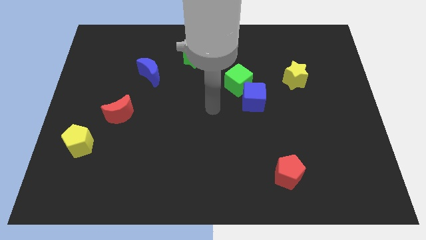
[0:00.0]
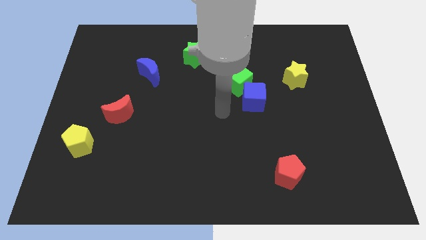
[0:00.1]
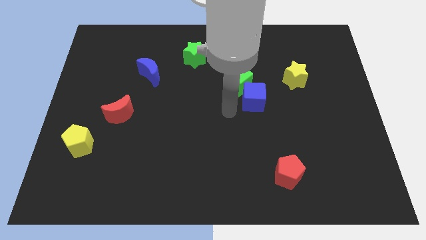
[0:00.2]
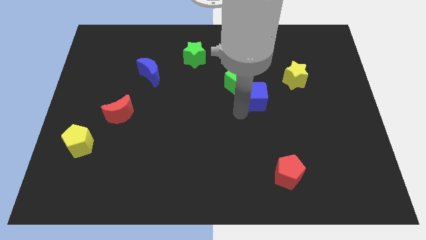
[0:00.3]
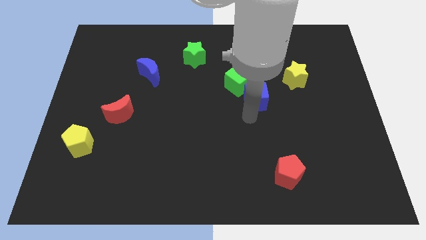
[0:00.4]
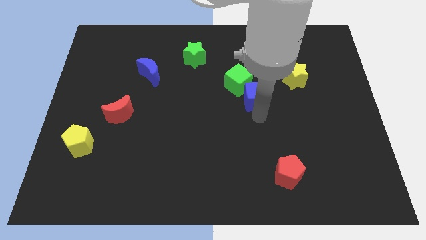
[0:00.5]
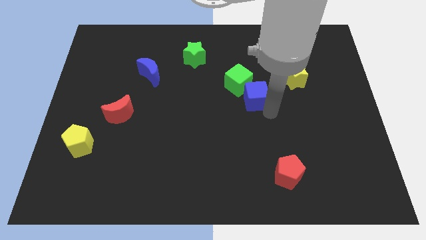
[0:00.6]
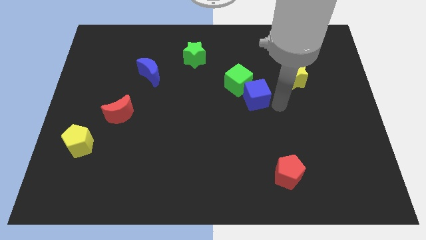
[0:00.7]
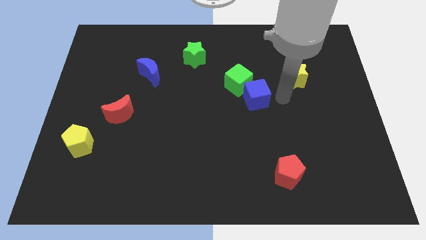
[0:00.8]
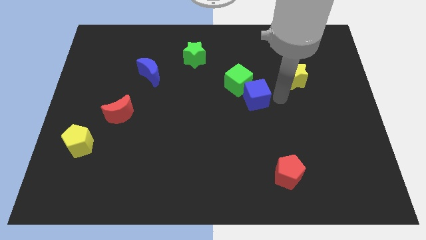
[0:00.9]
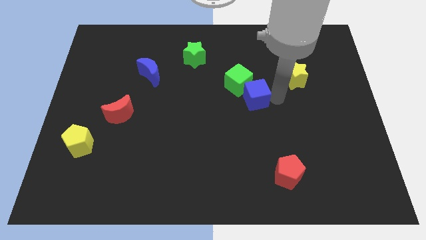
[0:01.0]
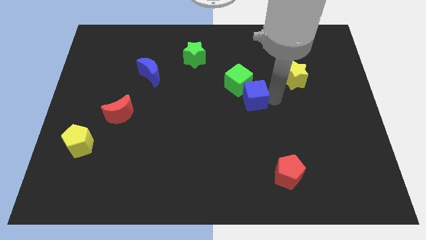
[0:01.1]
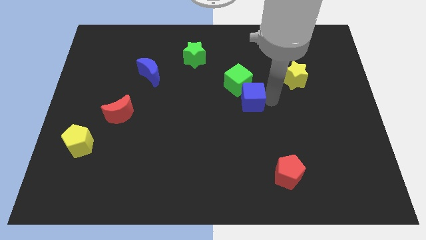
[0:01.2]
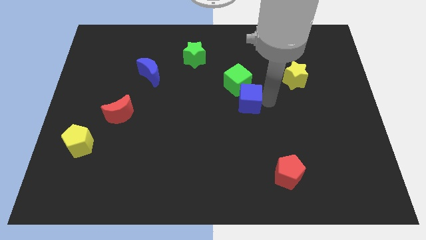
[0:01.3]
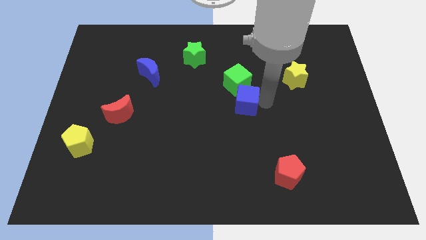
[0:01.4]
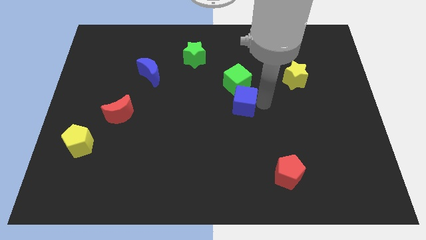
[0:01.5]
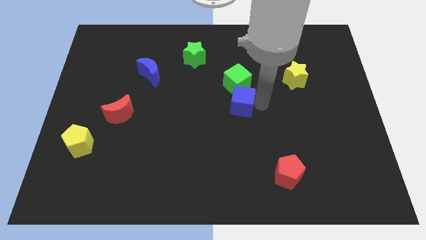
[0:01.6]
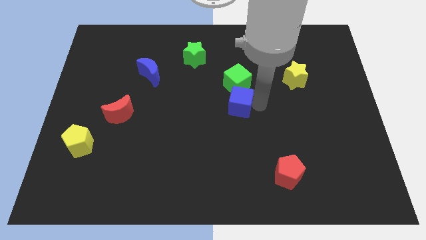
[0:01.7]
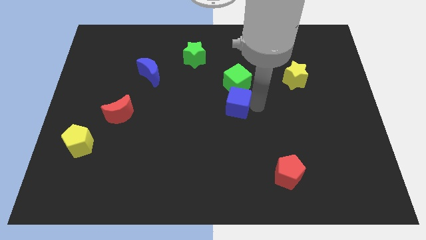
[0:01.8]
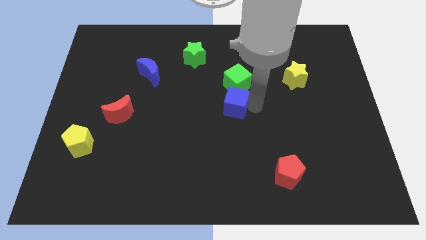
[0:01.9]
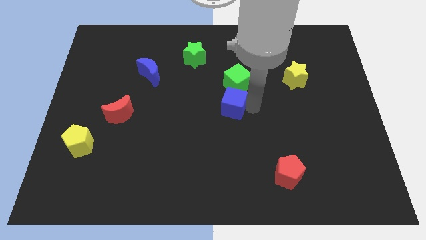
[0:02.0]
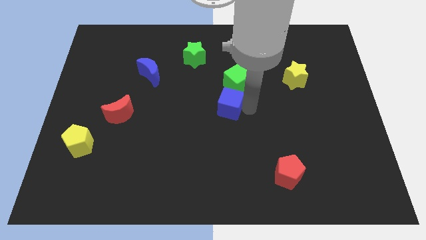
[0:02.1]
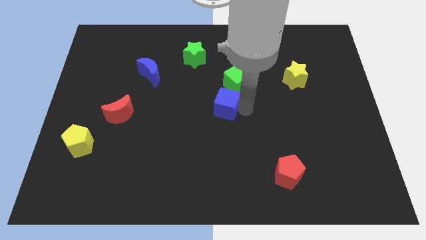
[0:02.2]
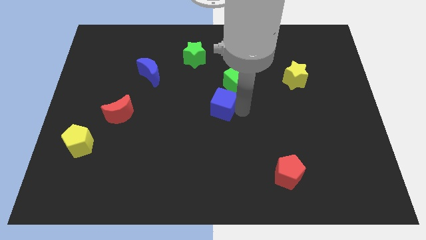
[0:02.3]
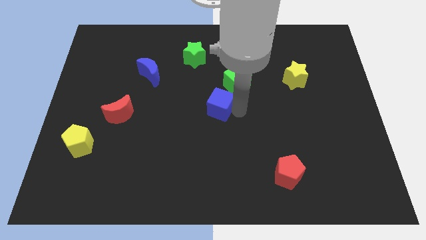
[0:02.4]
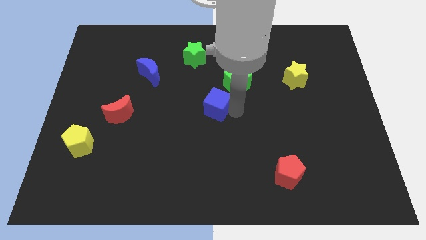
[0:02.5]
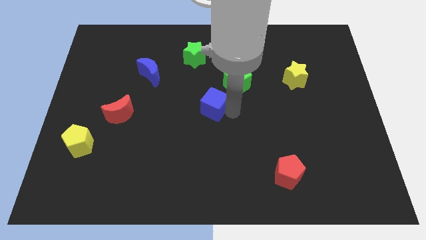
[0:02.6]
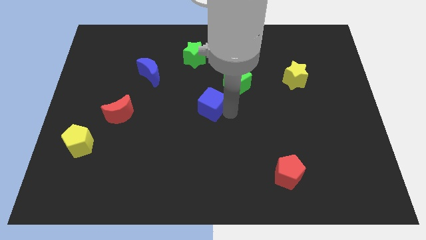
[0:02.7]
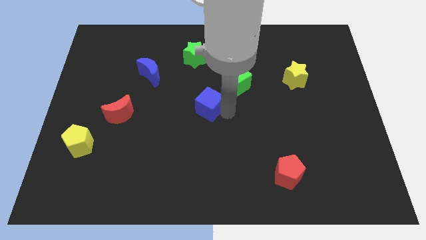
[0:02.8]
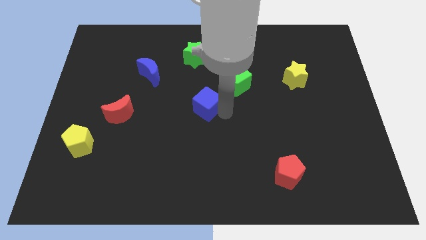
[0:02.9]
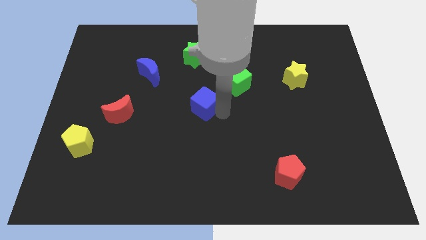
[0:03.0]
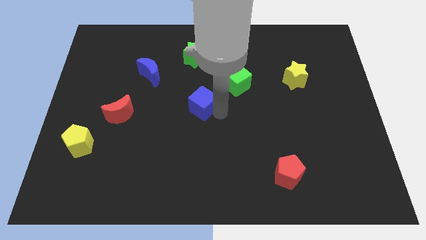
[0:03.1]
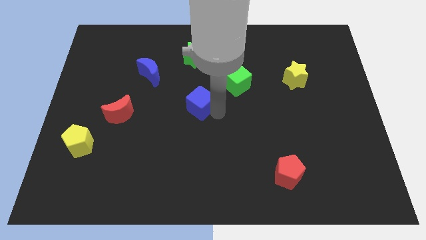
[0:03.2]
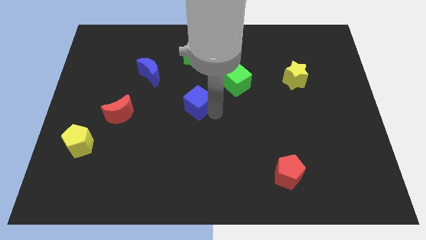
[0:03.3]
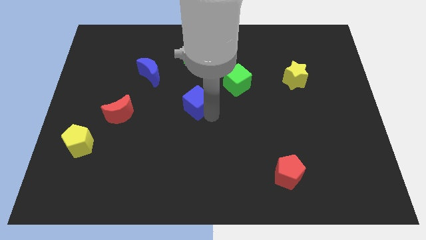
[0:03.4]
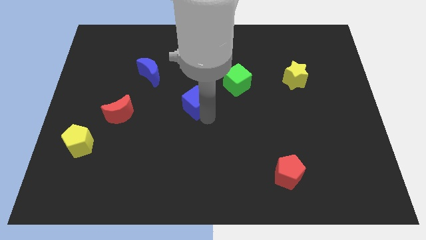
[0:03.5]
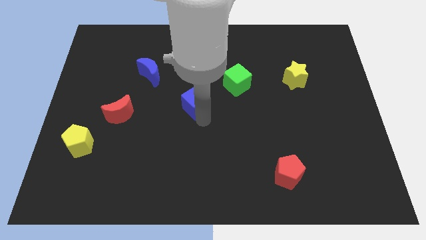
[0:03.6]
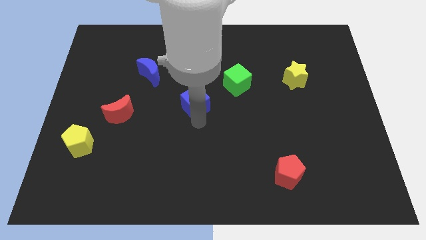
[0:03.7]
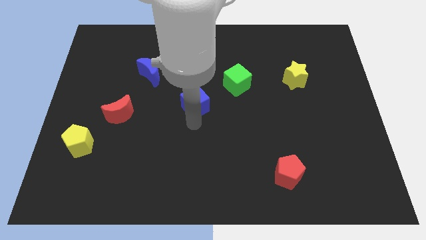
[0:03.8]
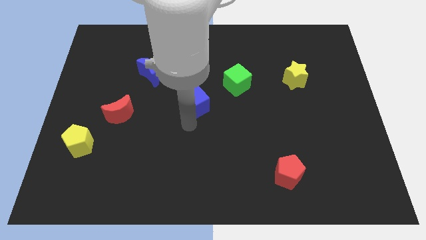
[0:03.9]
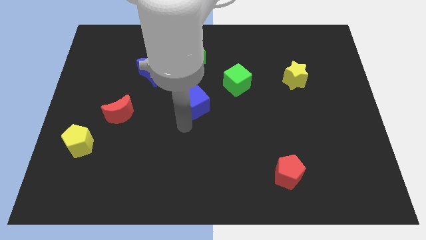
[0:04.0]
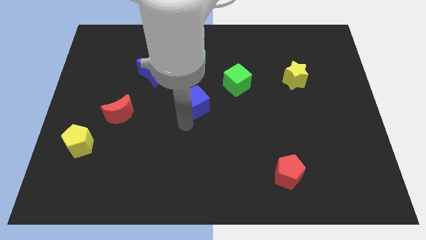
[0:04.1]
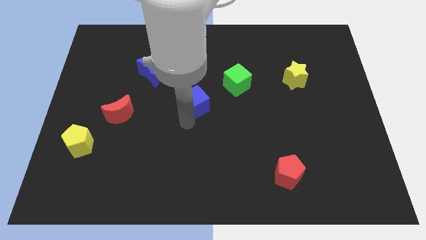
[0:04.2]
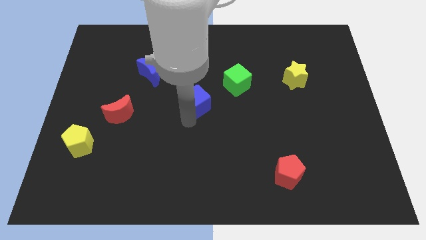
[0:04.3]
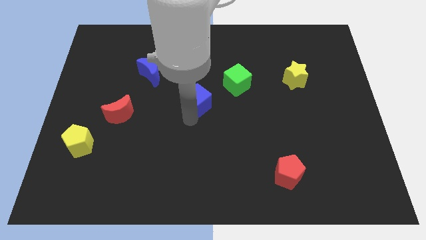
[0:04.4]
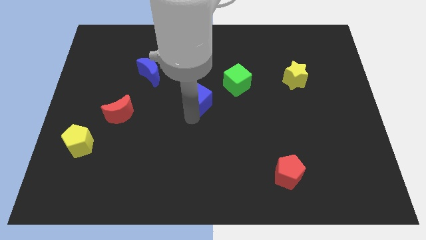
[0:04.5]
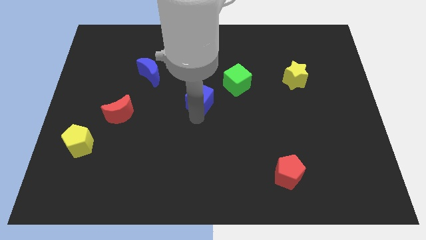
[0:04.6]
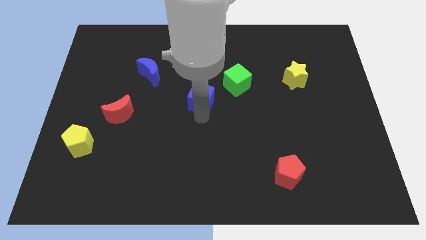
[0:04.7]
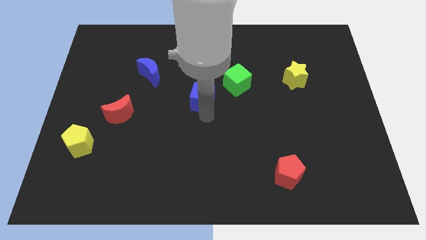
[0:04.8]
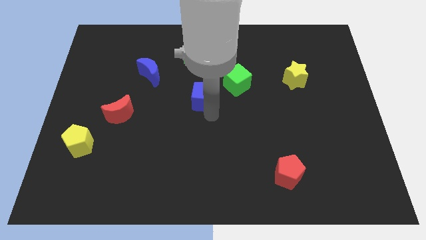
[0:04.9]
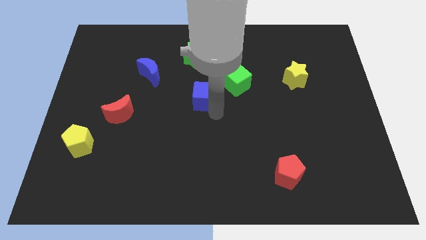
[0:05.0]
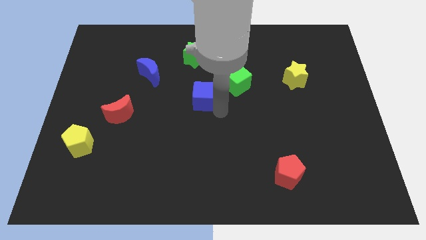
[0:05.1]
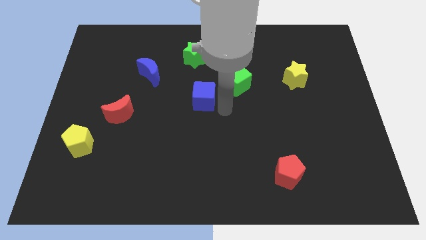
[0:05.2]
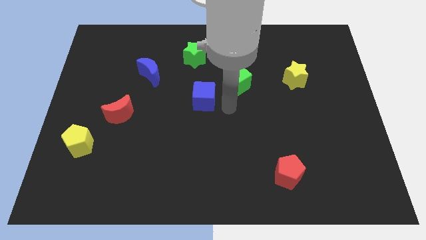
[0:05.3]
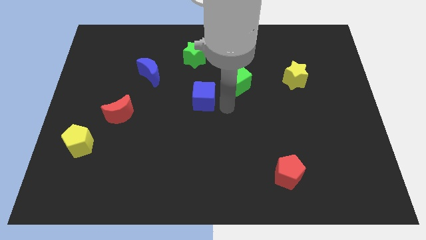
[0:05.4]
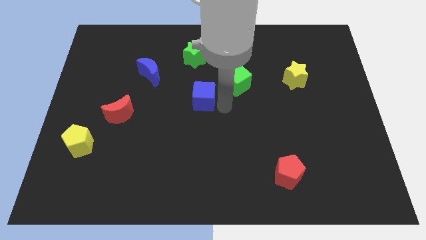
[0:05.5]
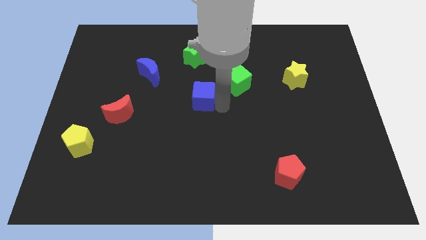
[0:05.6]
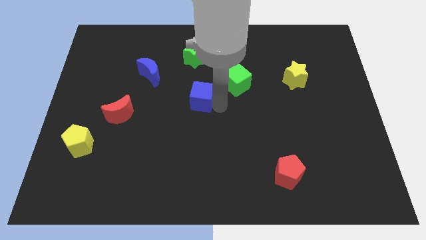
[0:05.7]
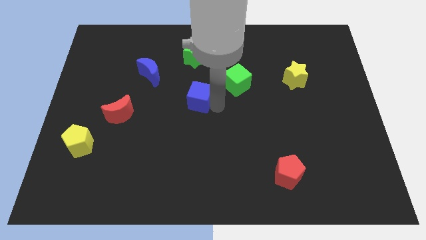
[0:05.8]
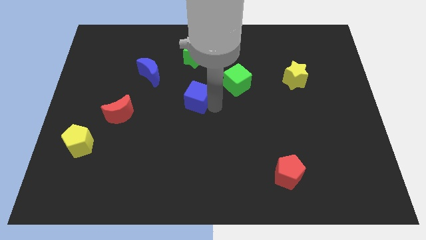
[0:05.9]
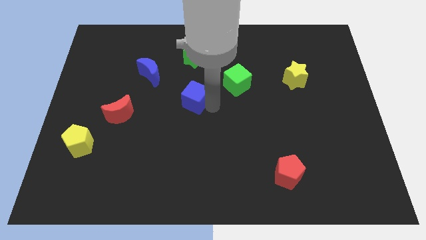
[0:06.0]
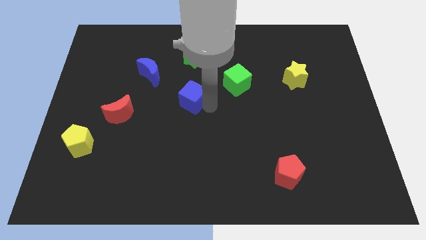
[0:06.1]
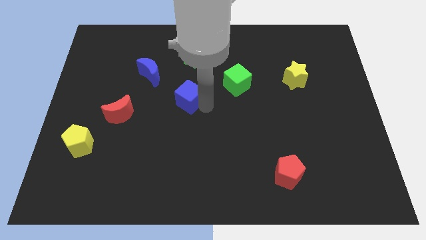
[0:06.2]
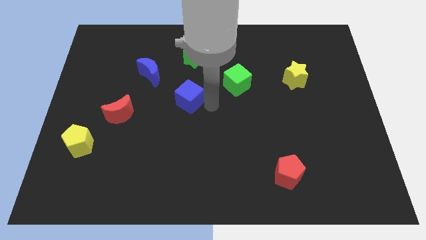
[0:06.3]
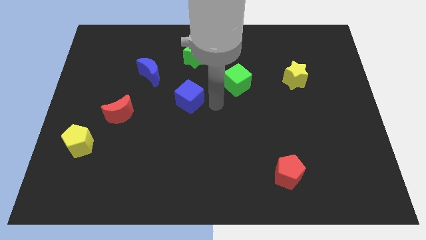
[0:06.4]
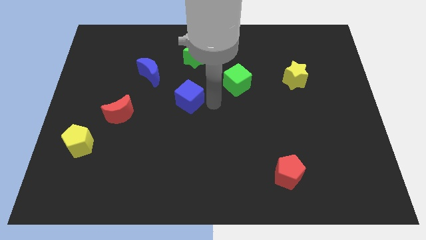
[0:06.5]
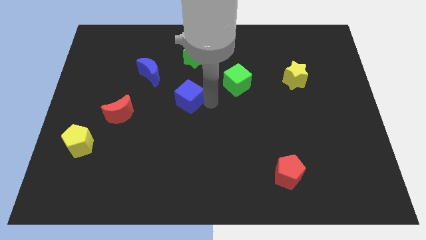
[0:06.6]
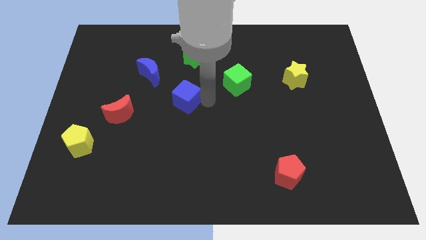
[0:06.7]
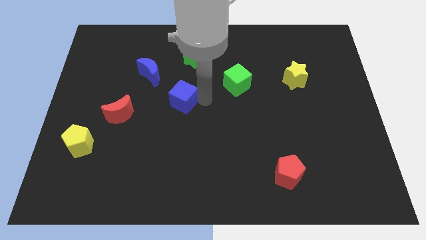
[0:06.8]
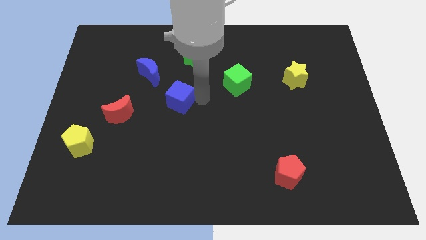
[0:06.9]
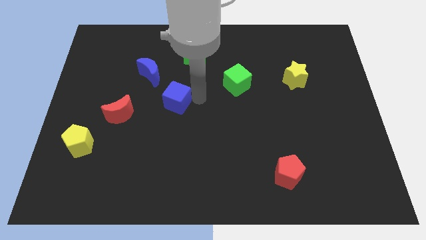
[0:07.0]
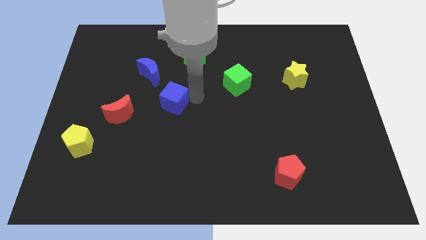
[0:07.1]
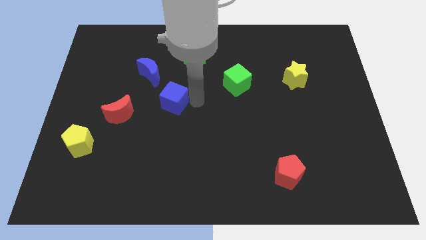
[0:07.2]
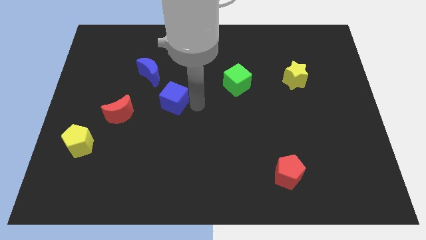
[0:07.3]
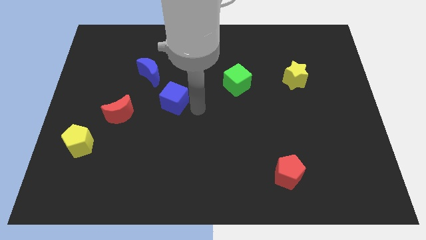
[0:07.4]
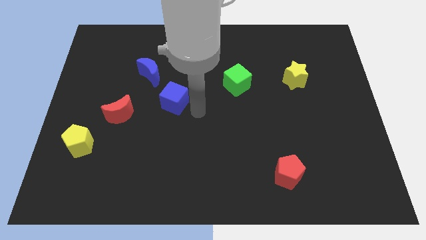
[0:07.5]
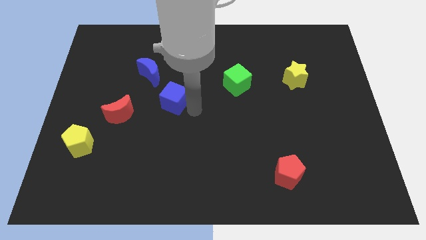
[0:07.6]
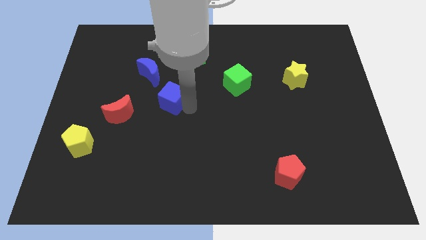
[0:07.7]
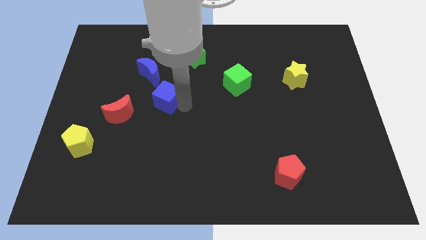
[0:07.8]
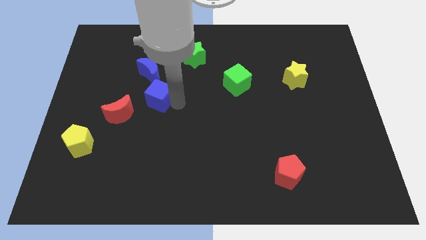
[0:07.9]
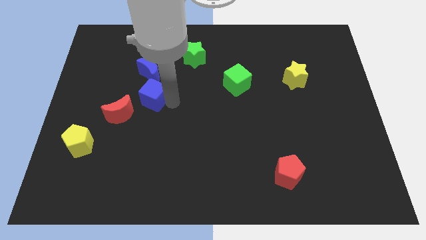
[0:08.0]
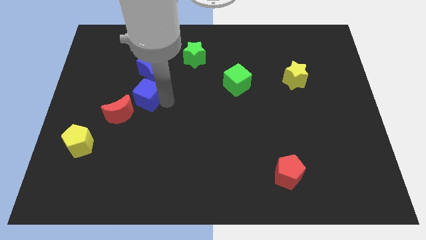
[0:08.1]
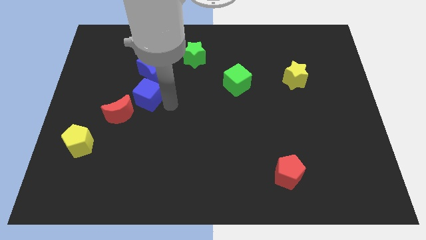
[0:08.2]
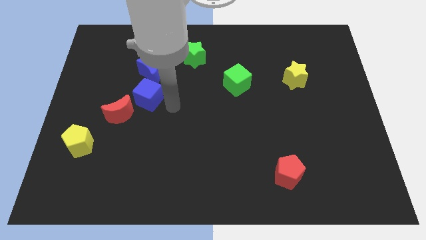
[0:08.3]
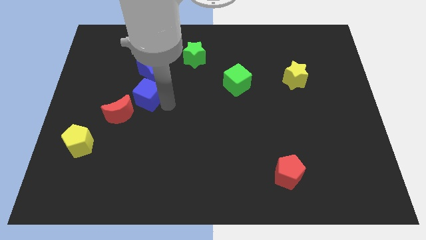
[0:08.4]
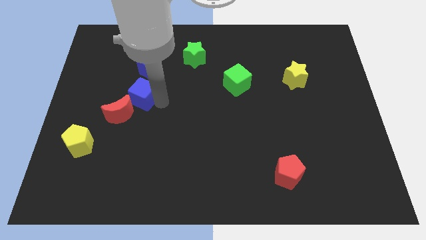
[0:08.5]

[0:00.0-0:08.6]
slide the blue cube to the bottom left side of the blue moon
